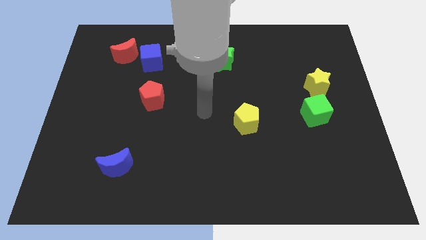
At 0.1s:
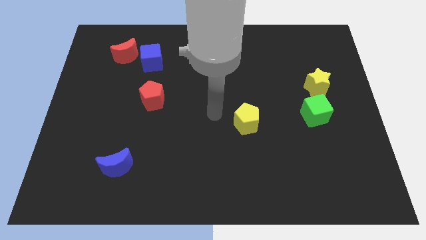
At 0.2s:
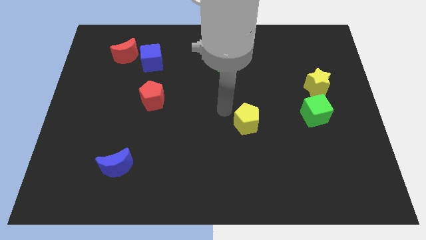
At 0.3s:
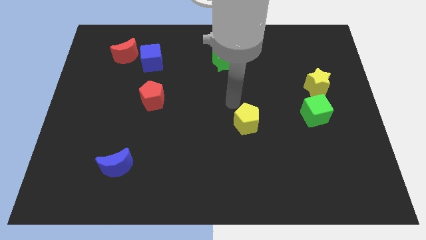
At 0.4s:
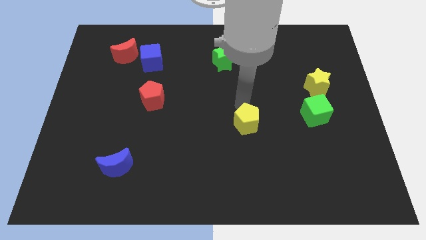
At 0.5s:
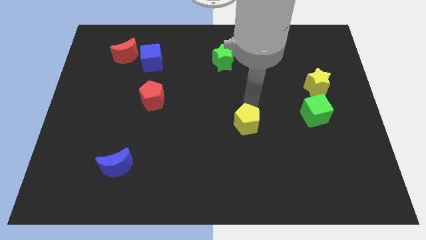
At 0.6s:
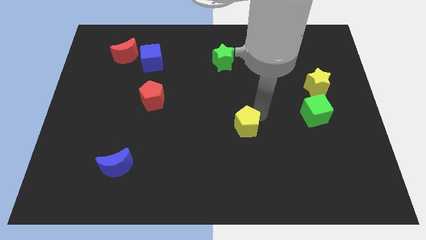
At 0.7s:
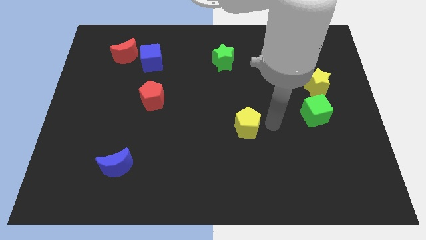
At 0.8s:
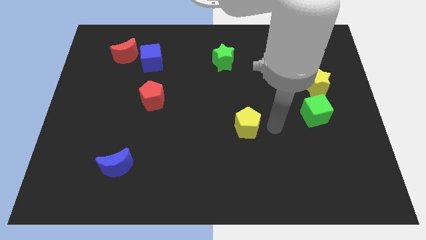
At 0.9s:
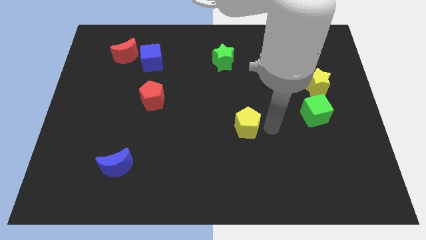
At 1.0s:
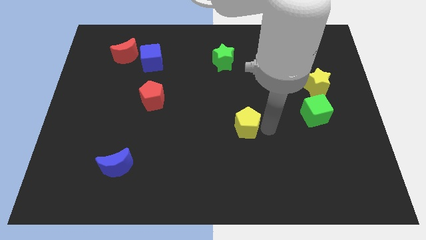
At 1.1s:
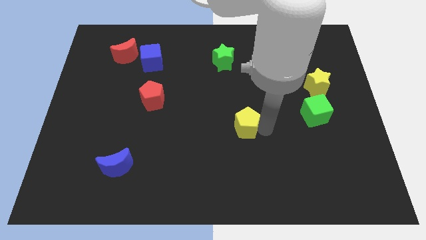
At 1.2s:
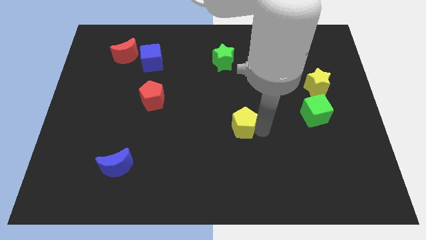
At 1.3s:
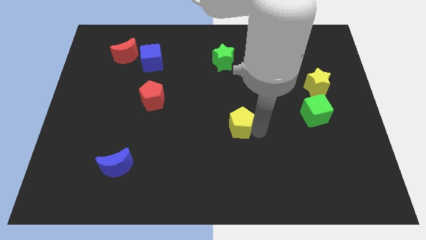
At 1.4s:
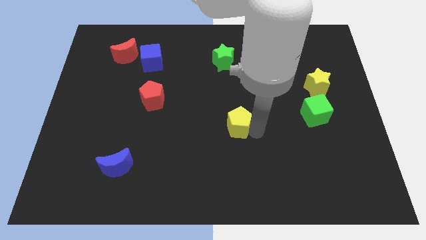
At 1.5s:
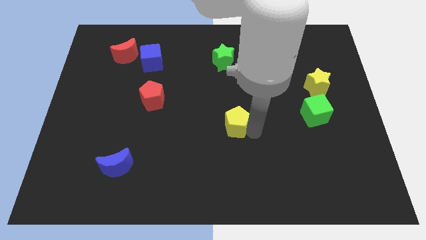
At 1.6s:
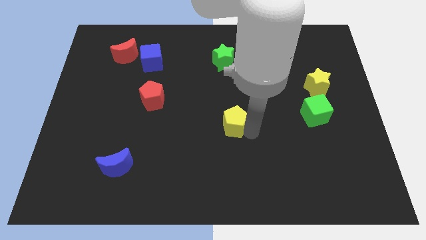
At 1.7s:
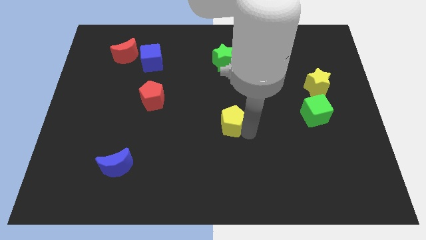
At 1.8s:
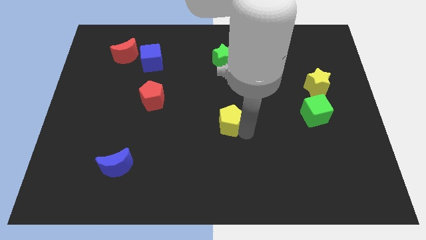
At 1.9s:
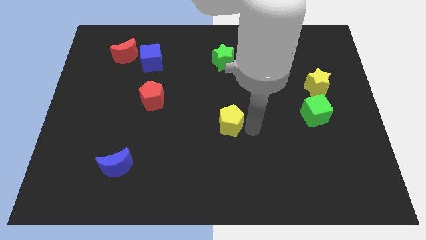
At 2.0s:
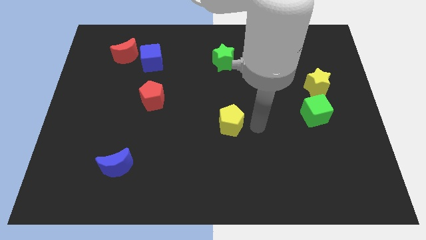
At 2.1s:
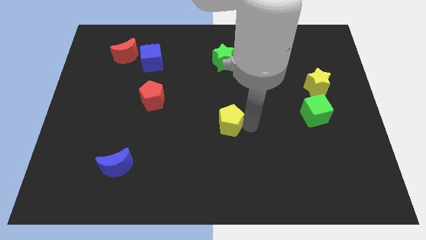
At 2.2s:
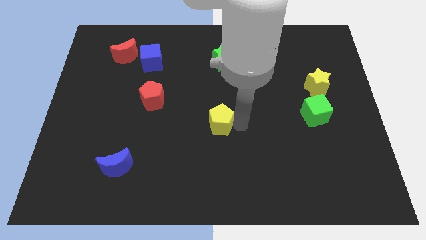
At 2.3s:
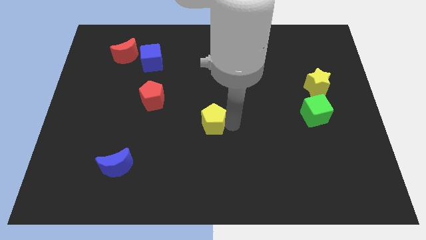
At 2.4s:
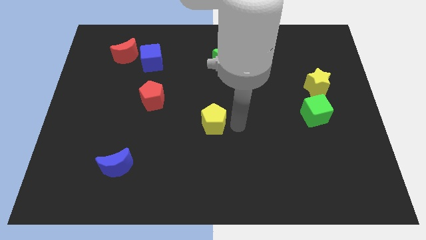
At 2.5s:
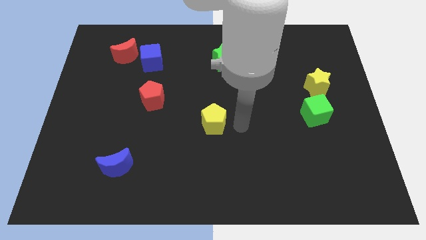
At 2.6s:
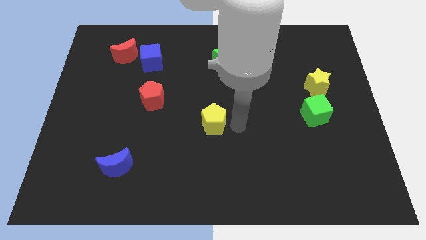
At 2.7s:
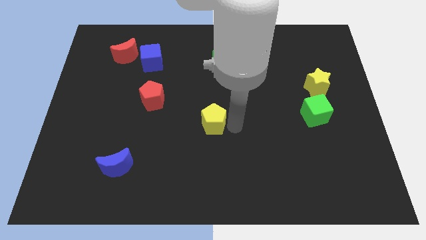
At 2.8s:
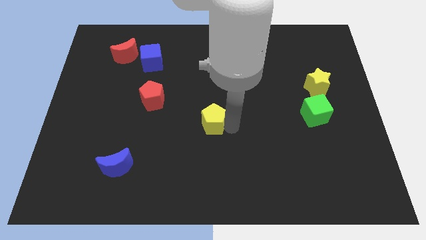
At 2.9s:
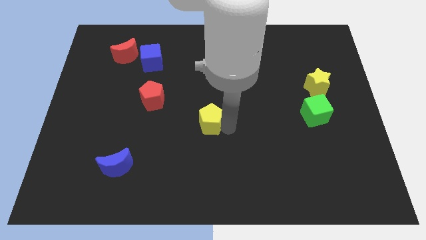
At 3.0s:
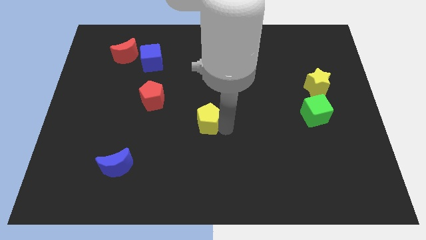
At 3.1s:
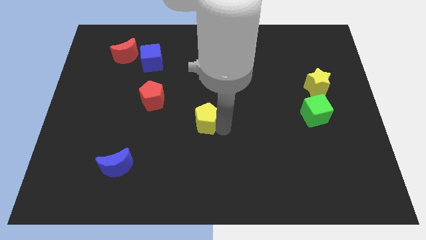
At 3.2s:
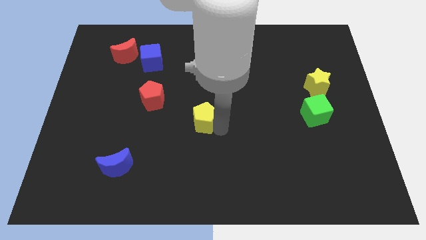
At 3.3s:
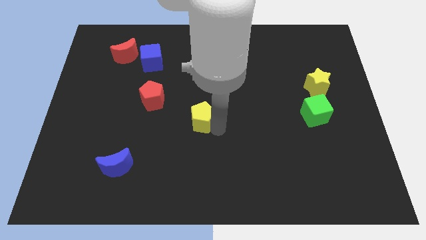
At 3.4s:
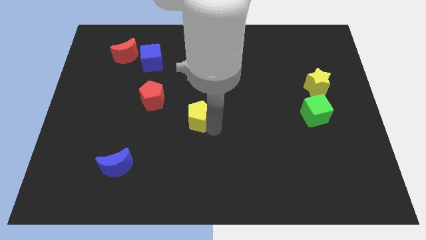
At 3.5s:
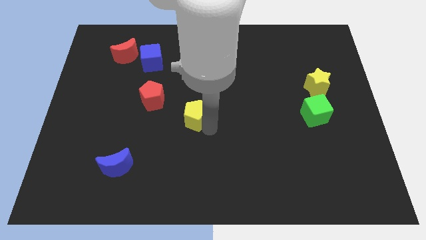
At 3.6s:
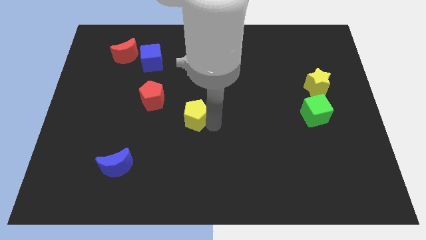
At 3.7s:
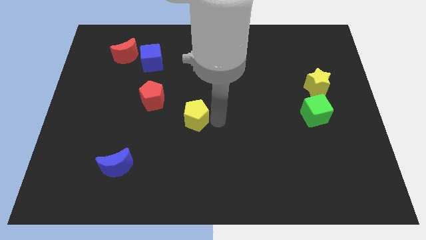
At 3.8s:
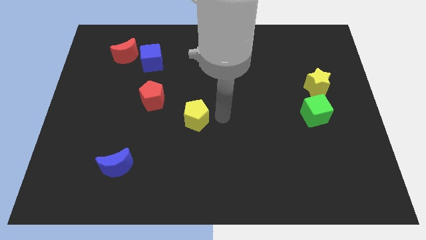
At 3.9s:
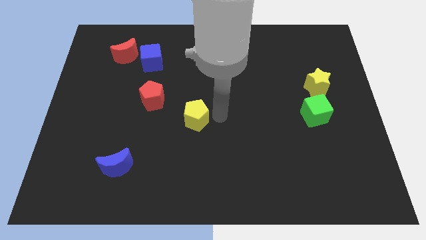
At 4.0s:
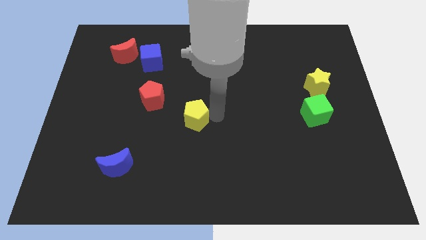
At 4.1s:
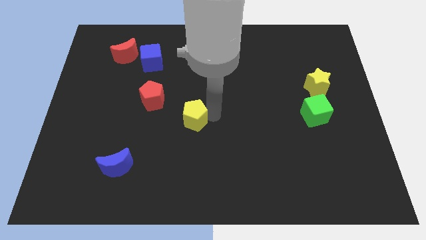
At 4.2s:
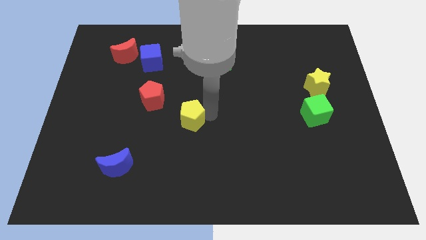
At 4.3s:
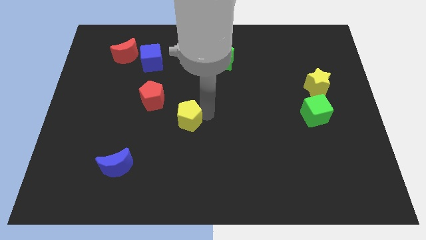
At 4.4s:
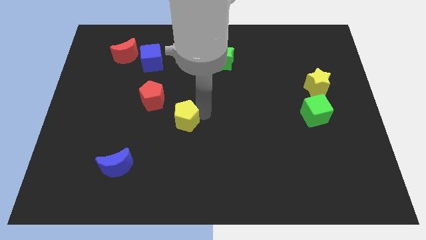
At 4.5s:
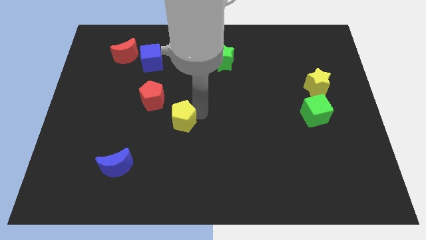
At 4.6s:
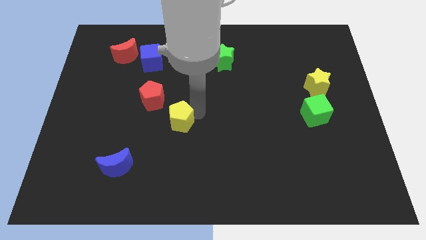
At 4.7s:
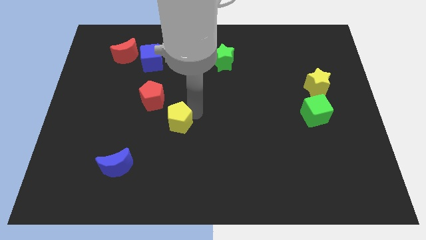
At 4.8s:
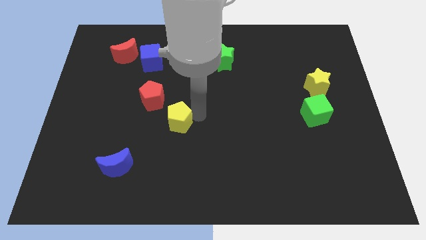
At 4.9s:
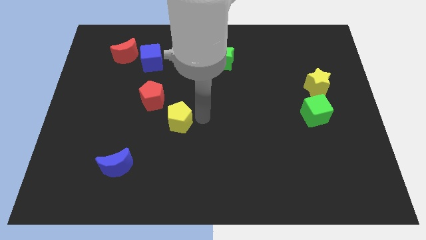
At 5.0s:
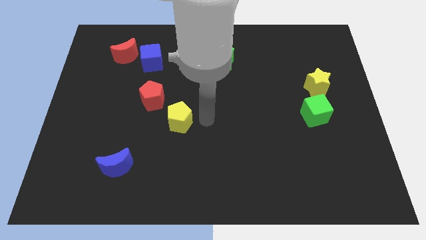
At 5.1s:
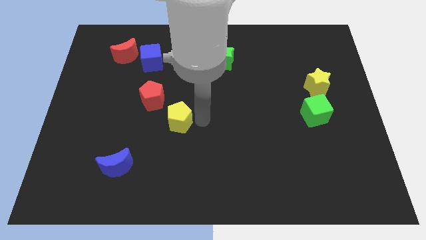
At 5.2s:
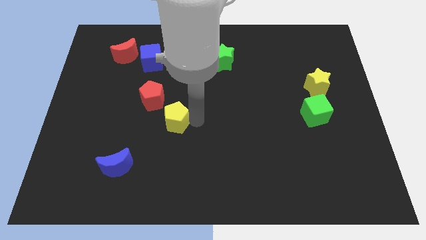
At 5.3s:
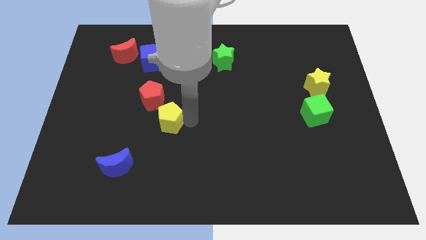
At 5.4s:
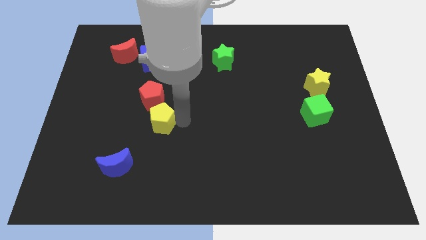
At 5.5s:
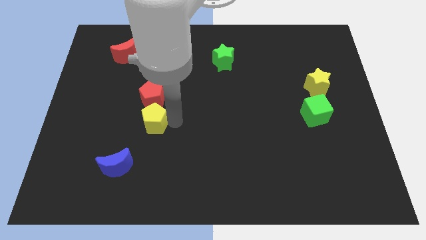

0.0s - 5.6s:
move the yellow pentagon to the left

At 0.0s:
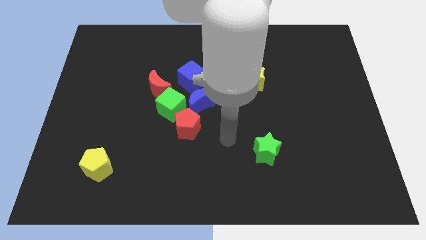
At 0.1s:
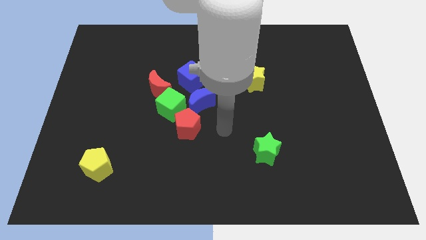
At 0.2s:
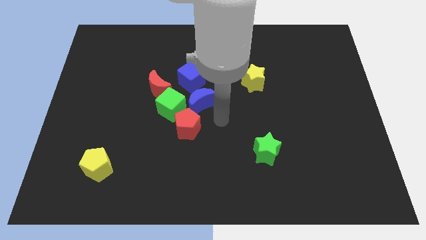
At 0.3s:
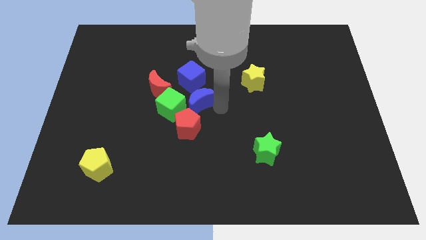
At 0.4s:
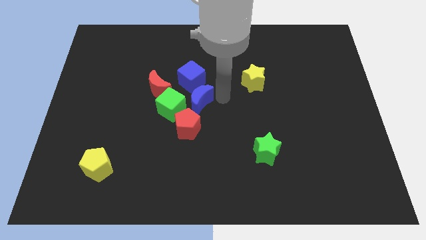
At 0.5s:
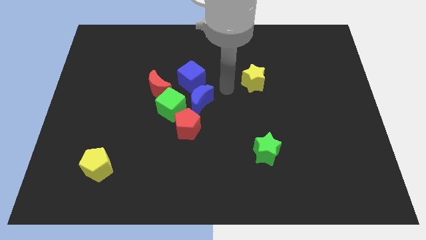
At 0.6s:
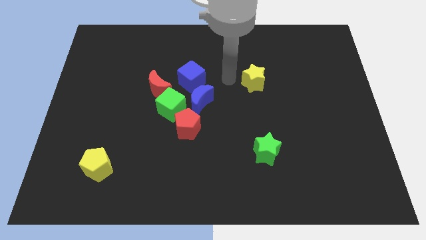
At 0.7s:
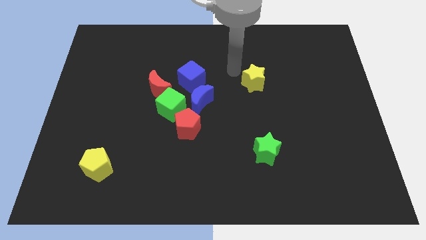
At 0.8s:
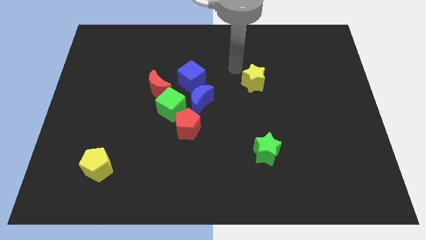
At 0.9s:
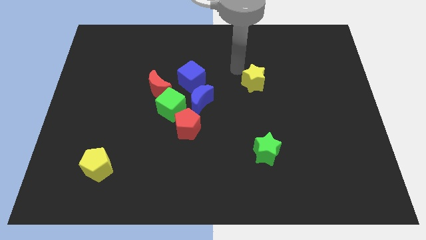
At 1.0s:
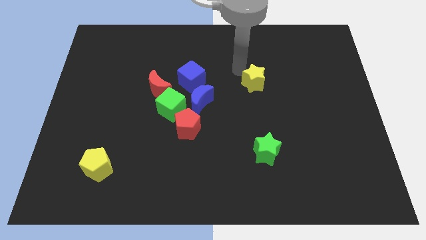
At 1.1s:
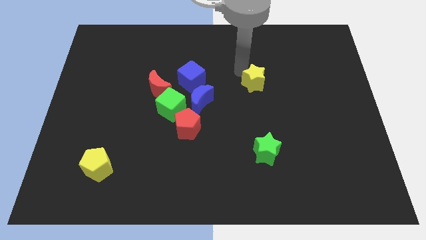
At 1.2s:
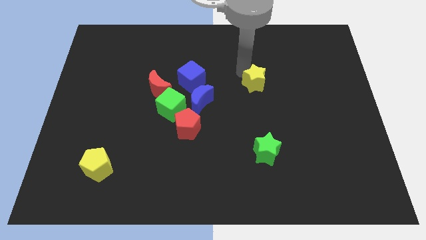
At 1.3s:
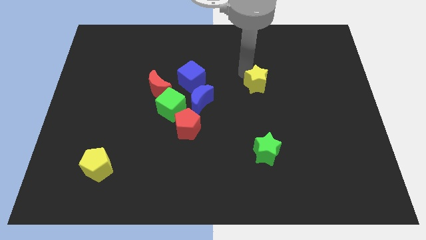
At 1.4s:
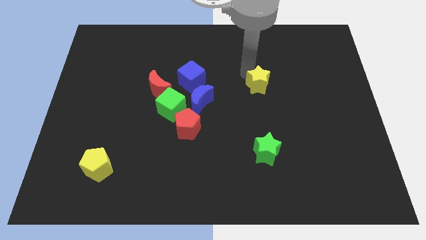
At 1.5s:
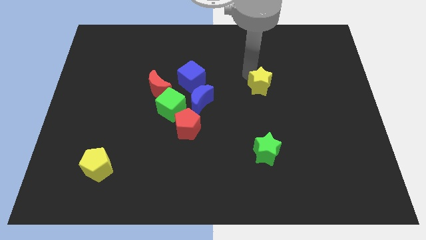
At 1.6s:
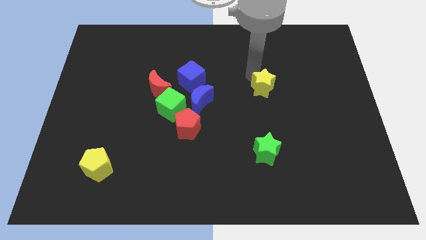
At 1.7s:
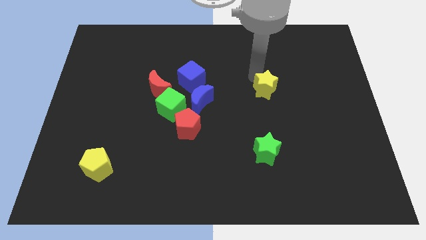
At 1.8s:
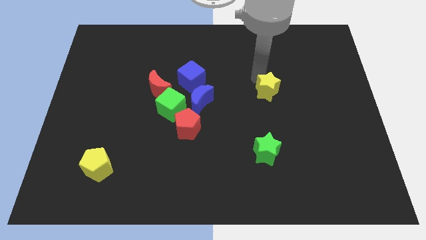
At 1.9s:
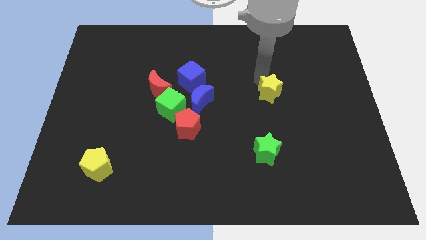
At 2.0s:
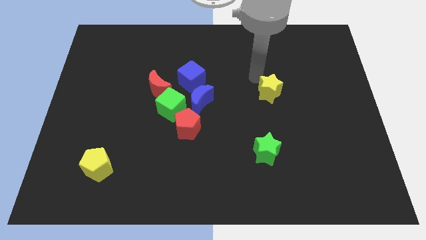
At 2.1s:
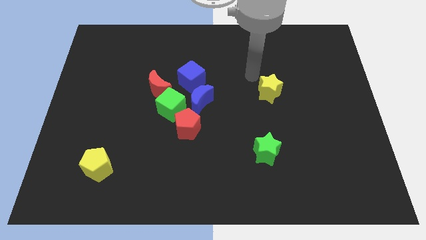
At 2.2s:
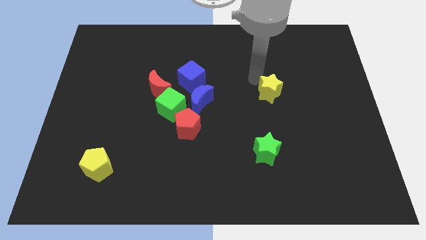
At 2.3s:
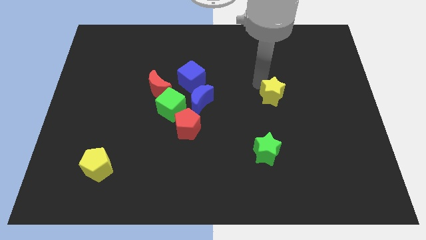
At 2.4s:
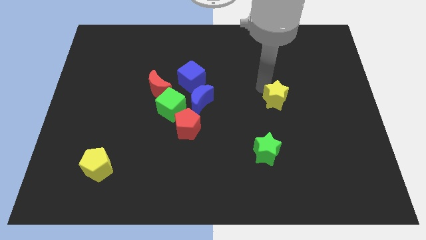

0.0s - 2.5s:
move the yellow star down and right diagonally a little
